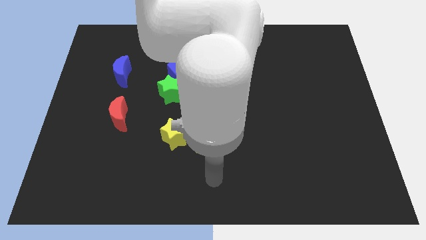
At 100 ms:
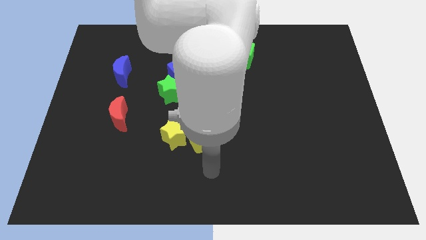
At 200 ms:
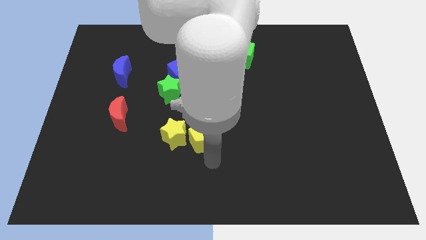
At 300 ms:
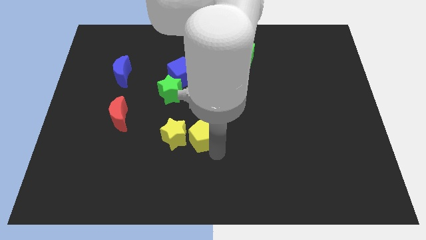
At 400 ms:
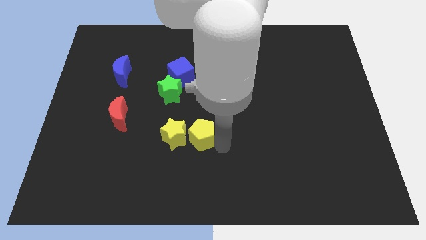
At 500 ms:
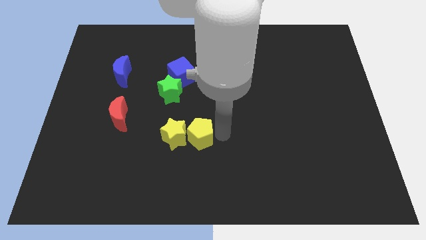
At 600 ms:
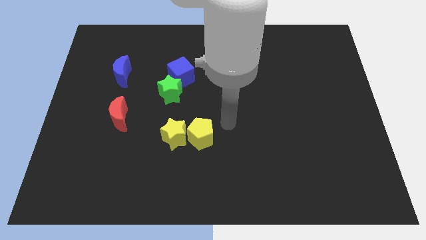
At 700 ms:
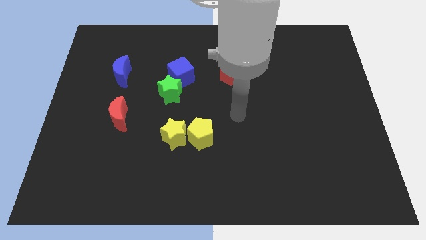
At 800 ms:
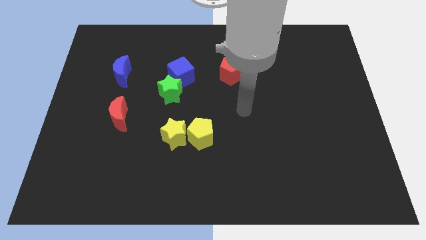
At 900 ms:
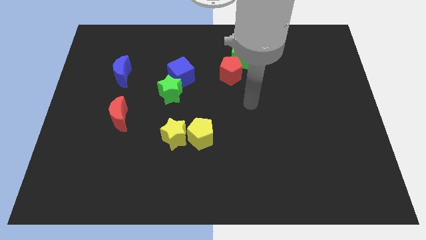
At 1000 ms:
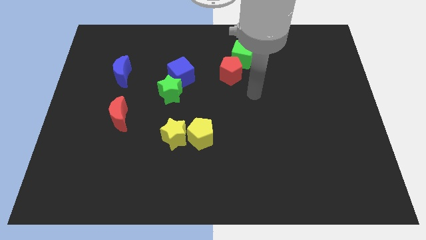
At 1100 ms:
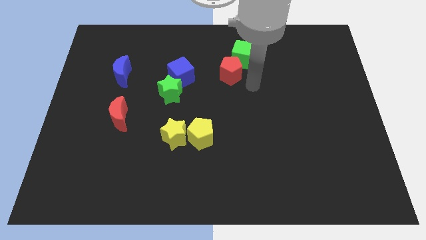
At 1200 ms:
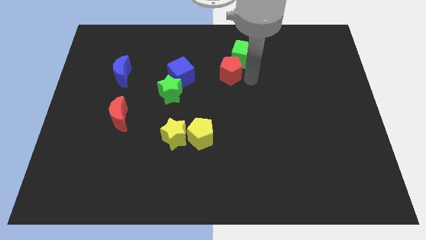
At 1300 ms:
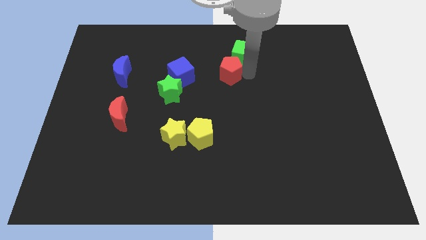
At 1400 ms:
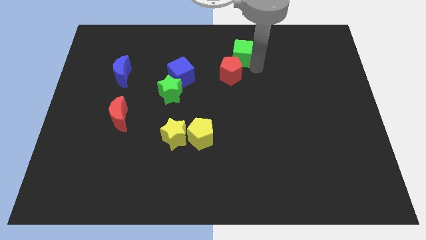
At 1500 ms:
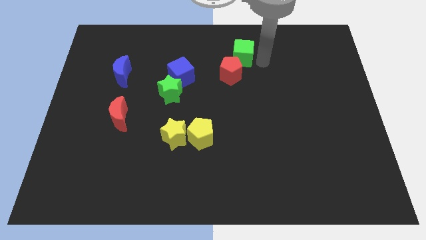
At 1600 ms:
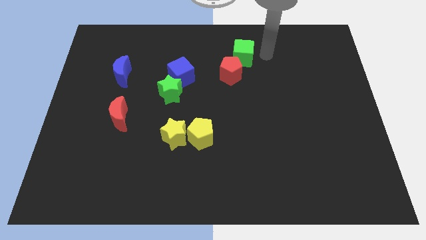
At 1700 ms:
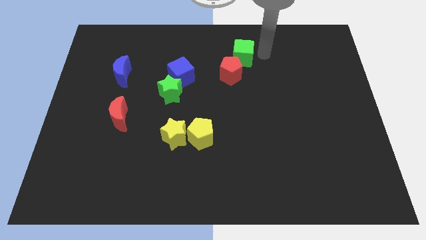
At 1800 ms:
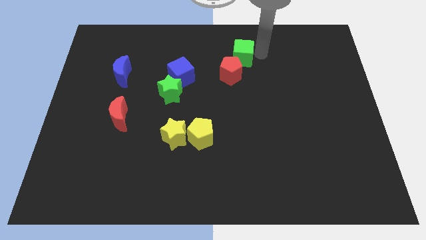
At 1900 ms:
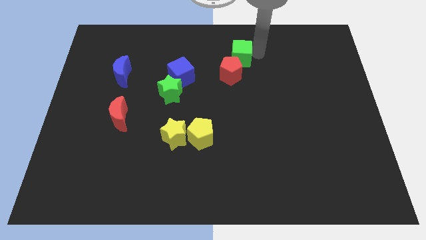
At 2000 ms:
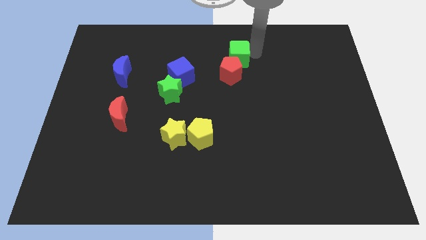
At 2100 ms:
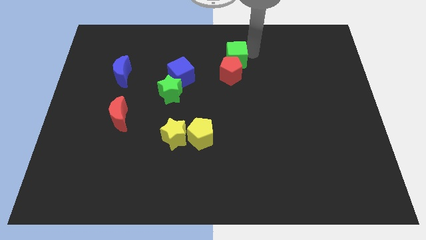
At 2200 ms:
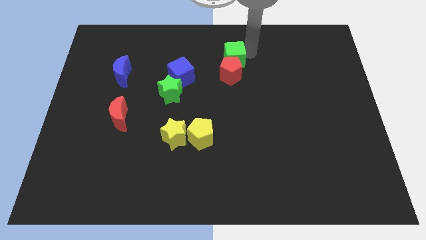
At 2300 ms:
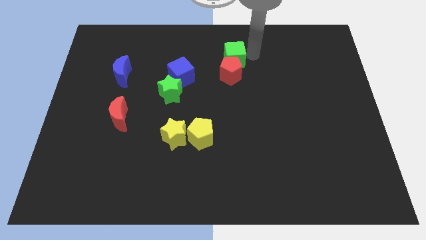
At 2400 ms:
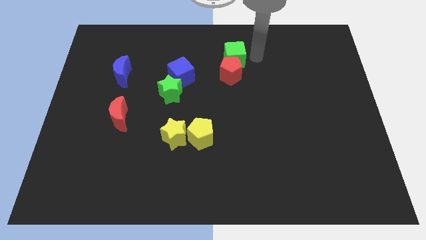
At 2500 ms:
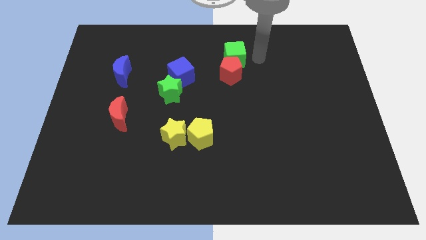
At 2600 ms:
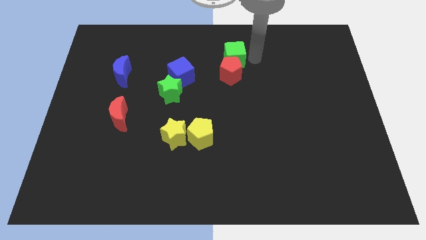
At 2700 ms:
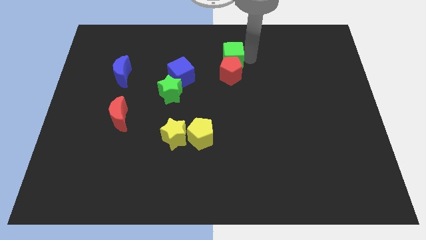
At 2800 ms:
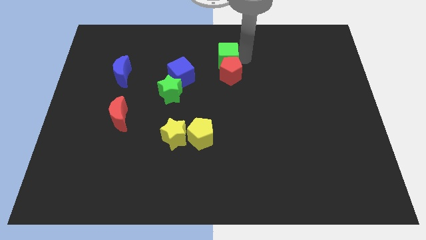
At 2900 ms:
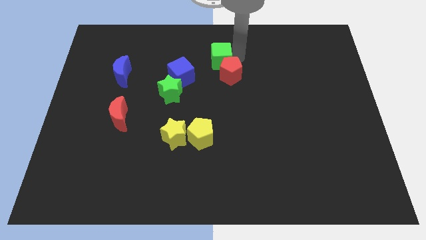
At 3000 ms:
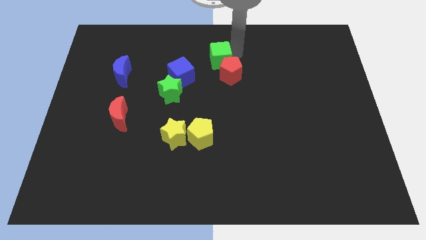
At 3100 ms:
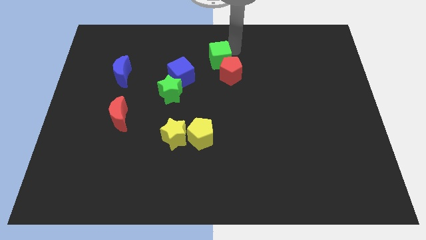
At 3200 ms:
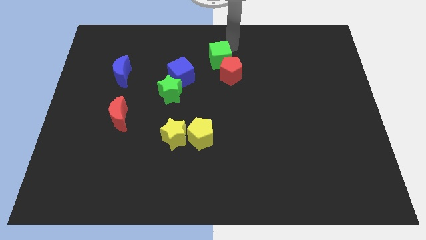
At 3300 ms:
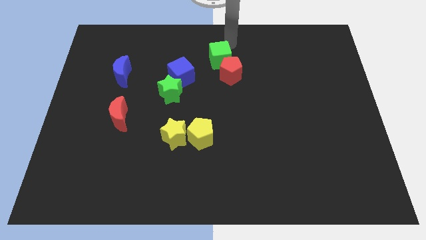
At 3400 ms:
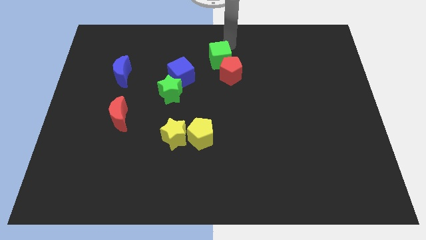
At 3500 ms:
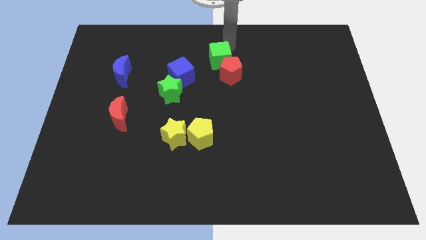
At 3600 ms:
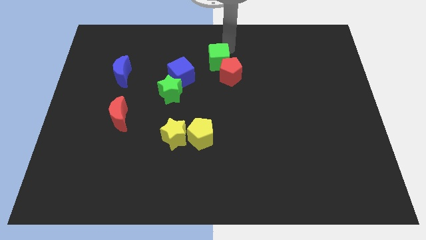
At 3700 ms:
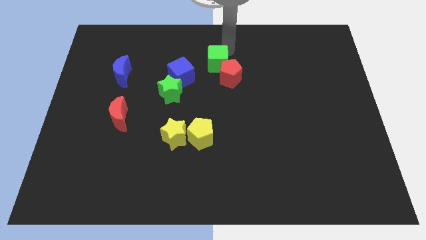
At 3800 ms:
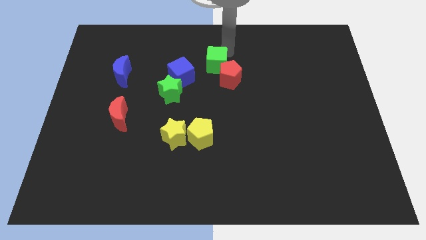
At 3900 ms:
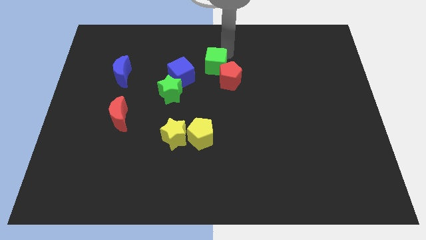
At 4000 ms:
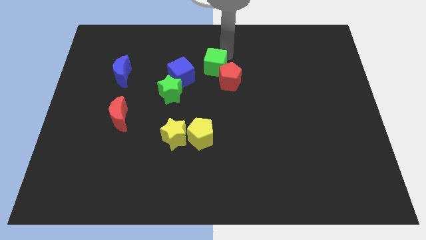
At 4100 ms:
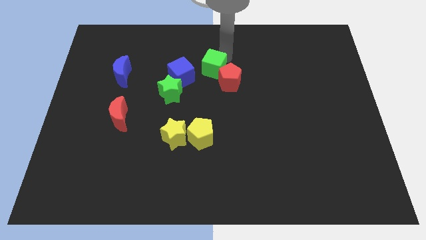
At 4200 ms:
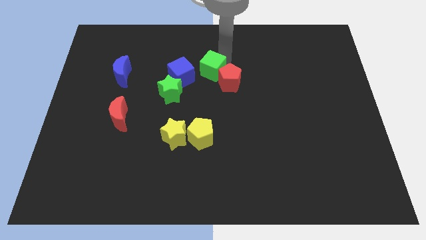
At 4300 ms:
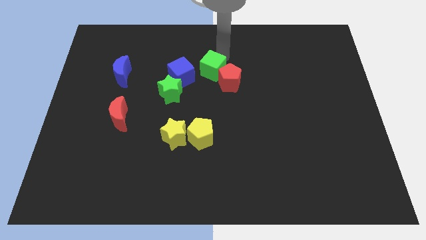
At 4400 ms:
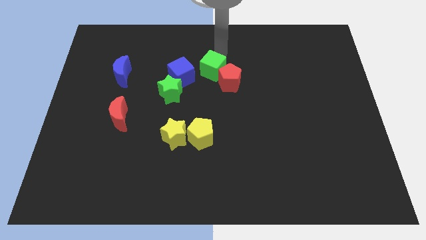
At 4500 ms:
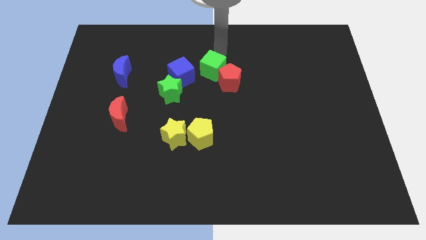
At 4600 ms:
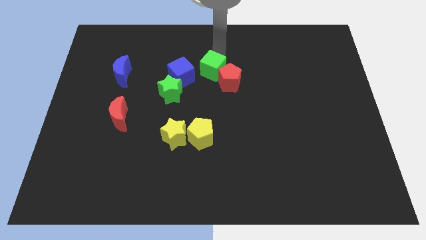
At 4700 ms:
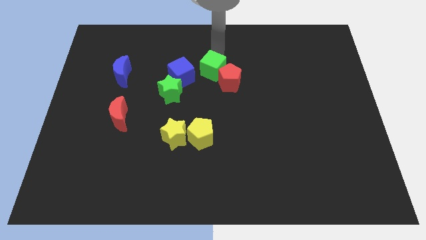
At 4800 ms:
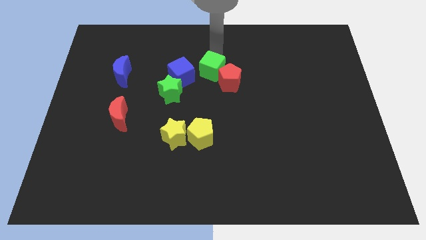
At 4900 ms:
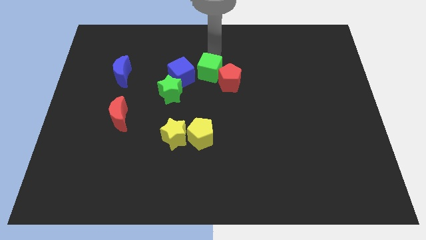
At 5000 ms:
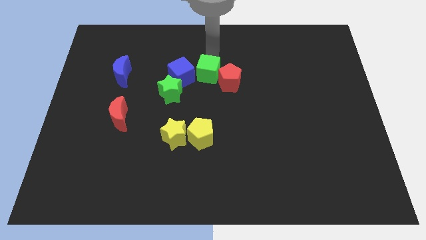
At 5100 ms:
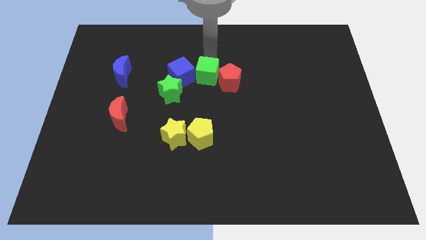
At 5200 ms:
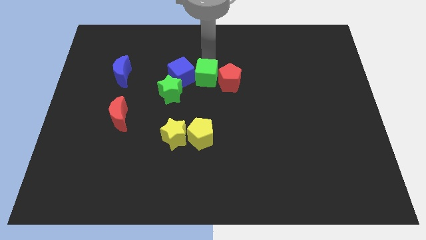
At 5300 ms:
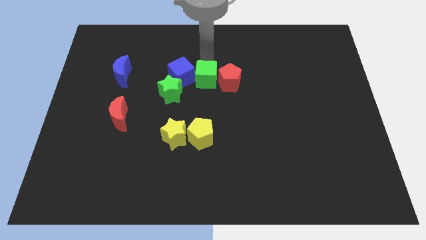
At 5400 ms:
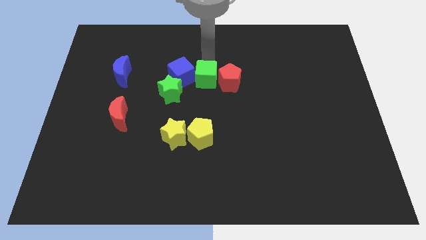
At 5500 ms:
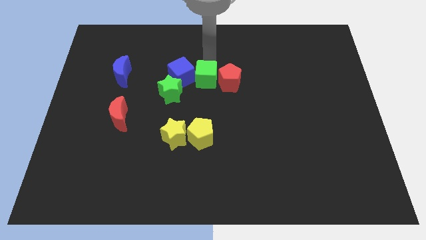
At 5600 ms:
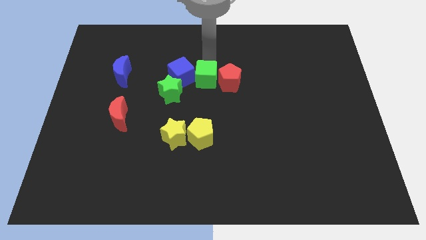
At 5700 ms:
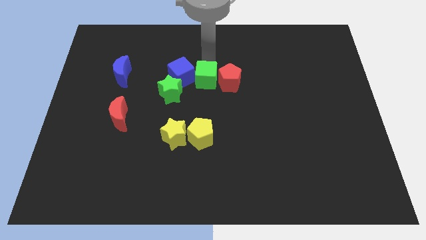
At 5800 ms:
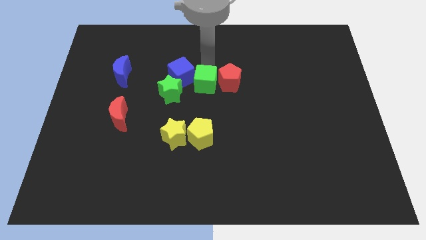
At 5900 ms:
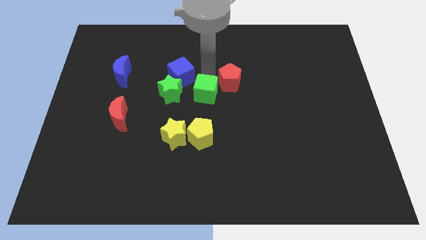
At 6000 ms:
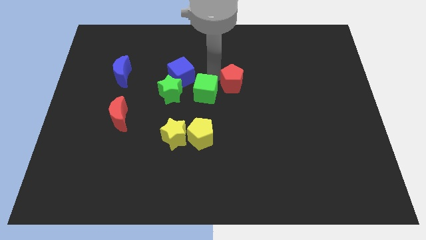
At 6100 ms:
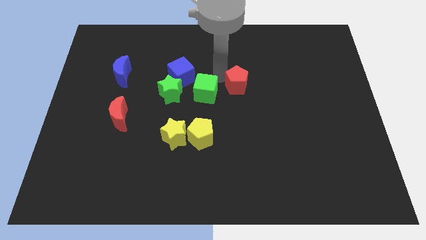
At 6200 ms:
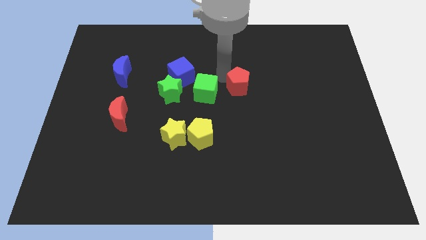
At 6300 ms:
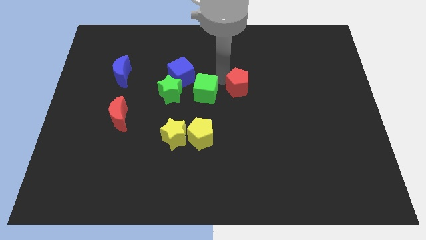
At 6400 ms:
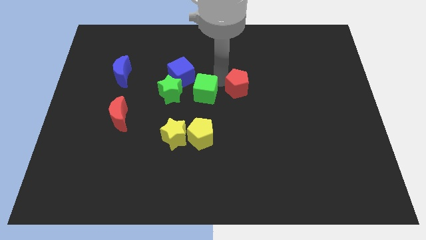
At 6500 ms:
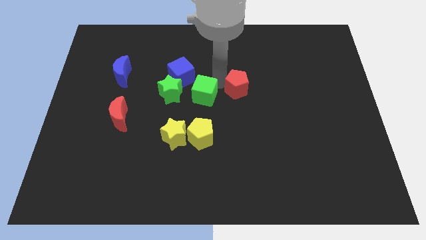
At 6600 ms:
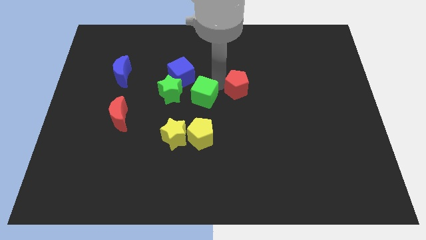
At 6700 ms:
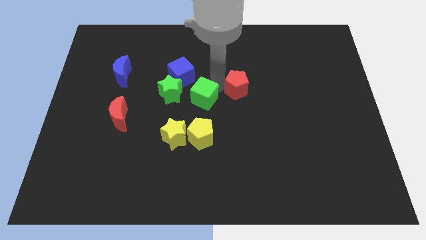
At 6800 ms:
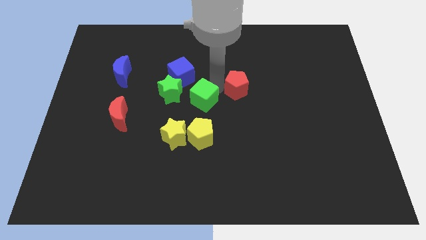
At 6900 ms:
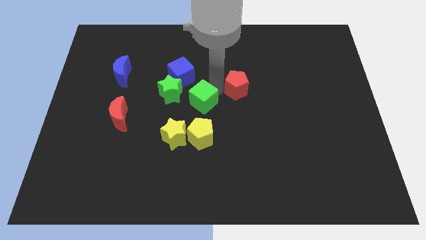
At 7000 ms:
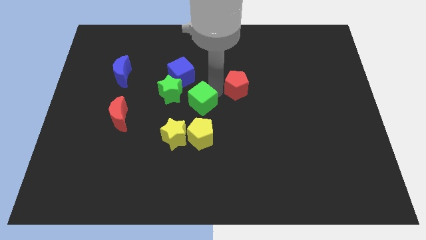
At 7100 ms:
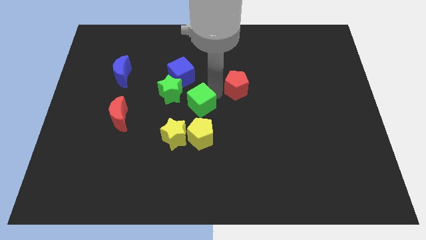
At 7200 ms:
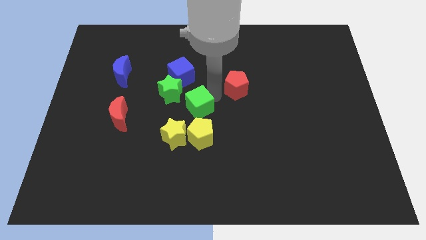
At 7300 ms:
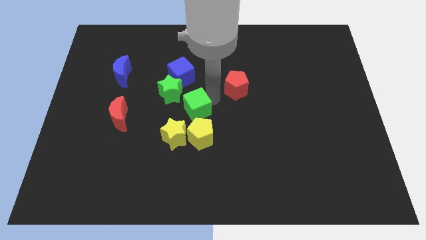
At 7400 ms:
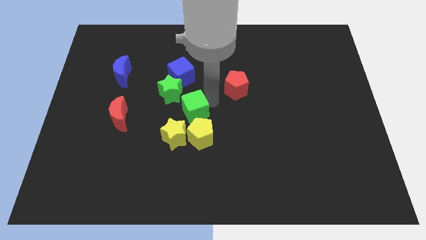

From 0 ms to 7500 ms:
slide the green cube downwards and left diagonally

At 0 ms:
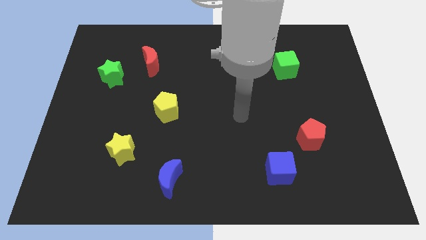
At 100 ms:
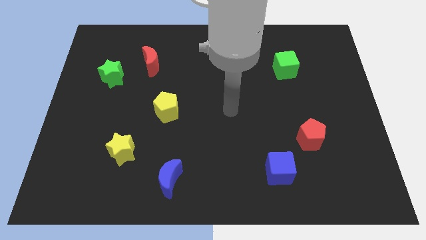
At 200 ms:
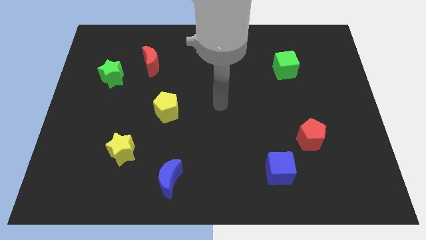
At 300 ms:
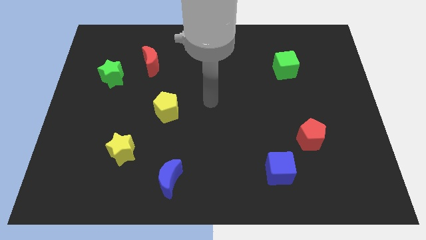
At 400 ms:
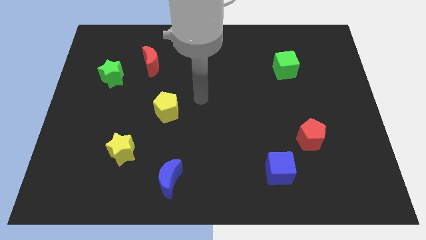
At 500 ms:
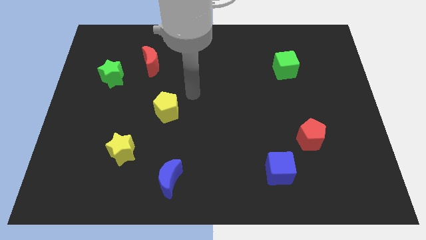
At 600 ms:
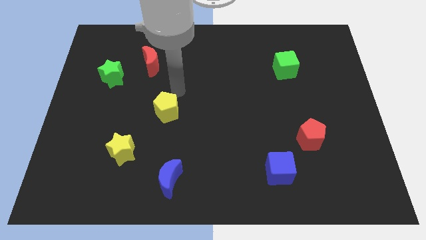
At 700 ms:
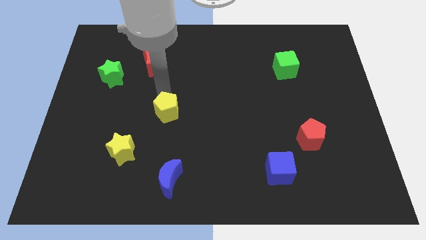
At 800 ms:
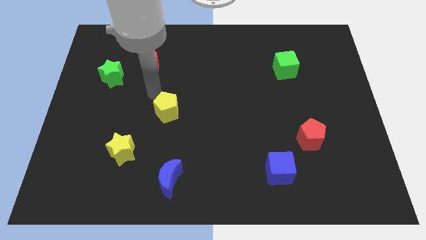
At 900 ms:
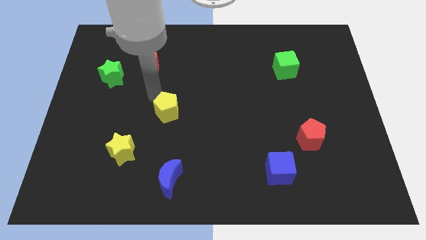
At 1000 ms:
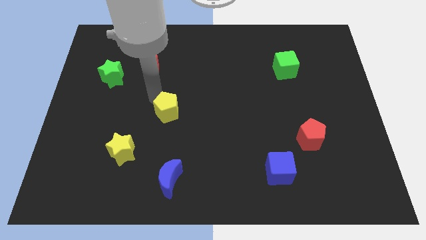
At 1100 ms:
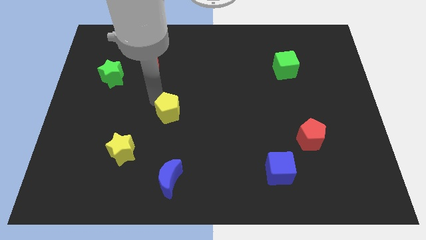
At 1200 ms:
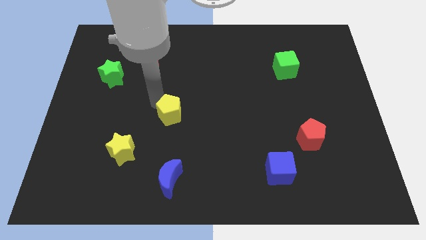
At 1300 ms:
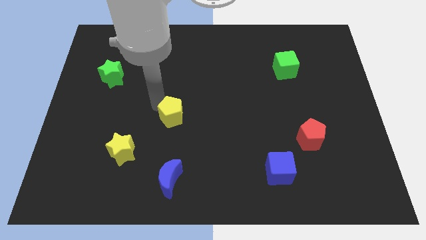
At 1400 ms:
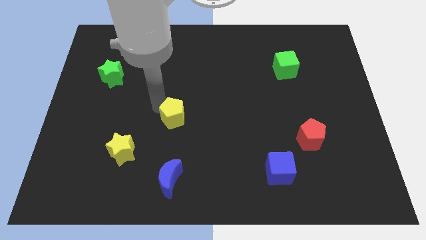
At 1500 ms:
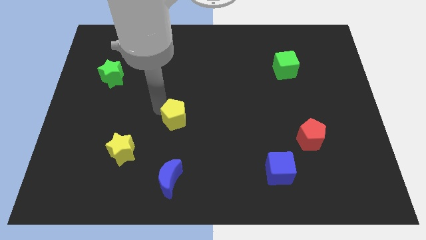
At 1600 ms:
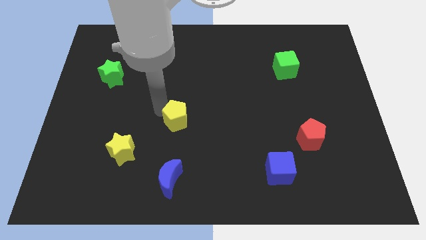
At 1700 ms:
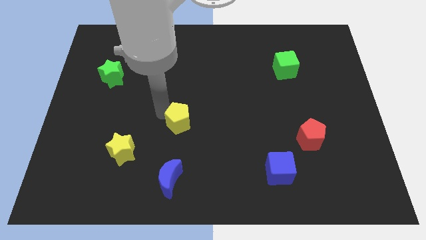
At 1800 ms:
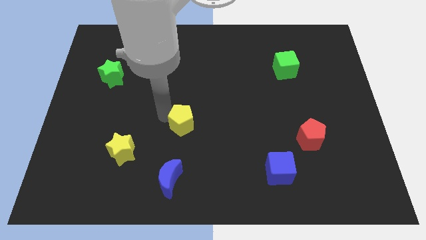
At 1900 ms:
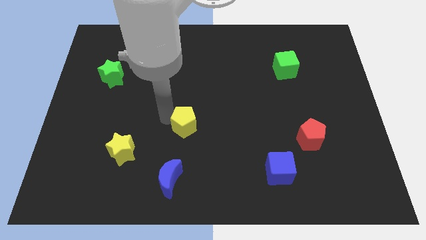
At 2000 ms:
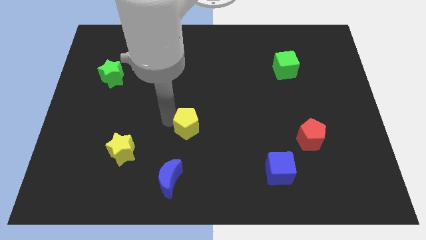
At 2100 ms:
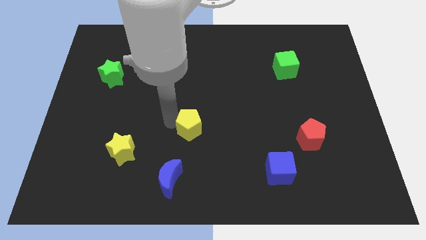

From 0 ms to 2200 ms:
slightly move the yellow pentagon down and then right
